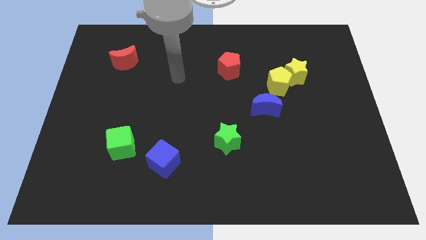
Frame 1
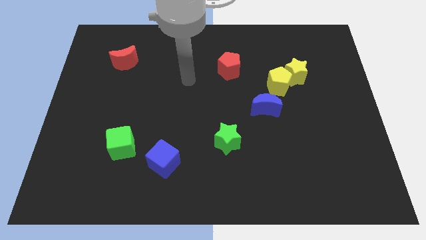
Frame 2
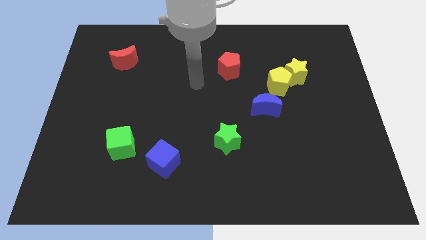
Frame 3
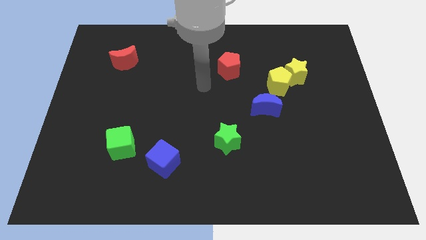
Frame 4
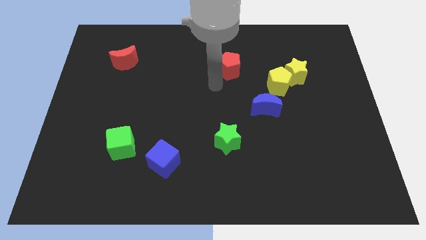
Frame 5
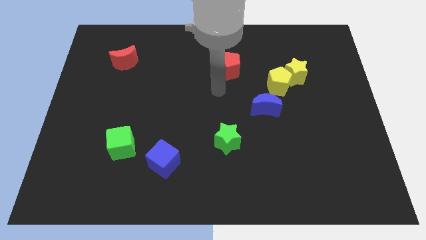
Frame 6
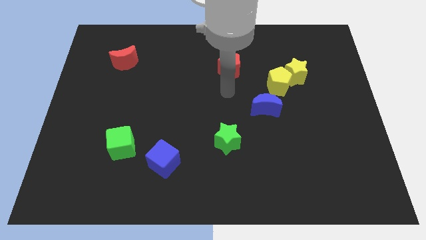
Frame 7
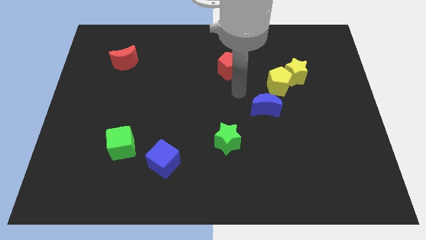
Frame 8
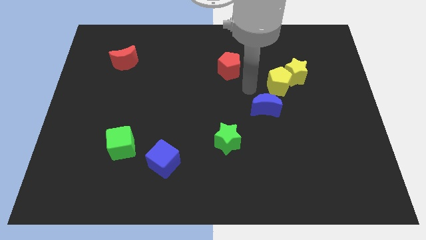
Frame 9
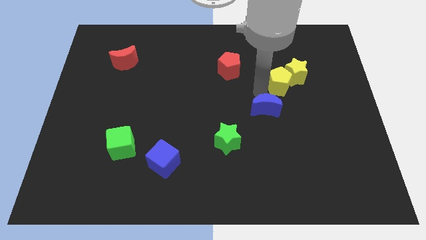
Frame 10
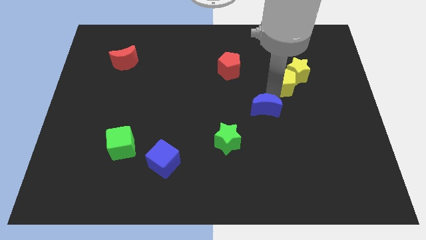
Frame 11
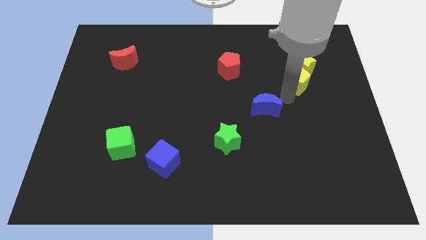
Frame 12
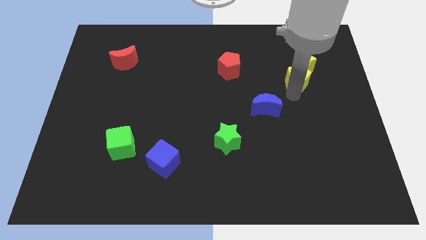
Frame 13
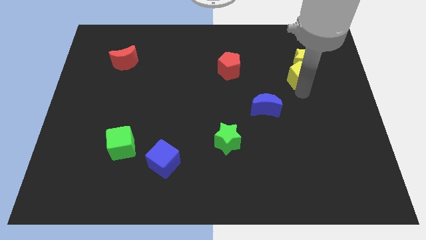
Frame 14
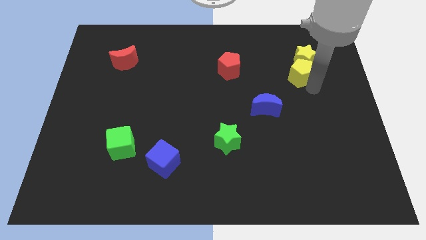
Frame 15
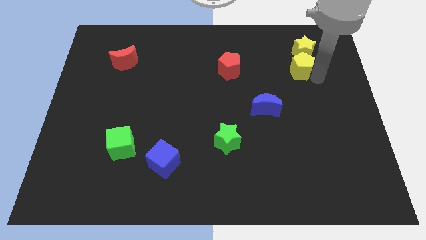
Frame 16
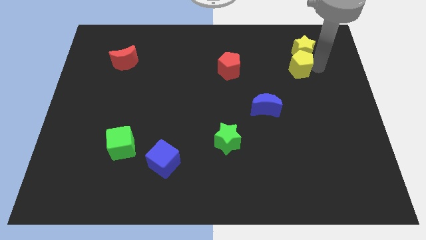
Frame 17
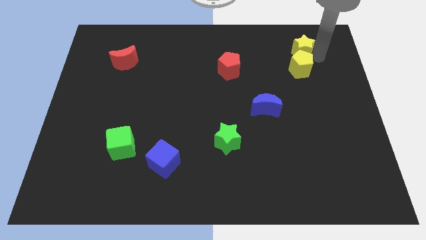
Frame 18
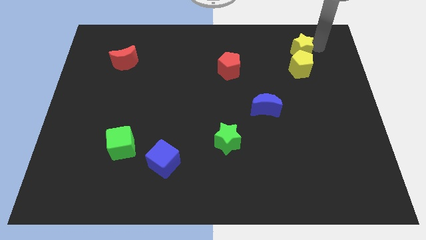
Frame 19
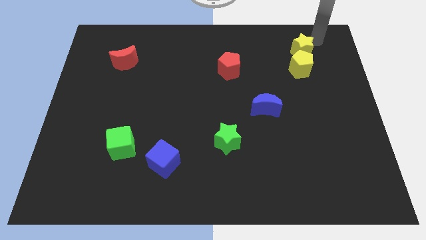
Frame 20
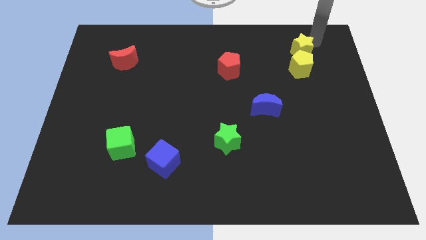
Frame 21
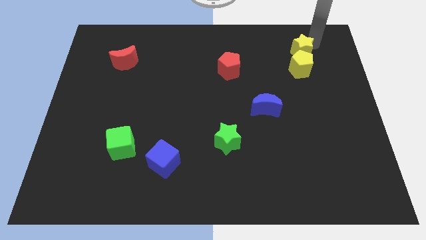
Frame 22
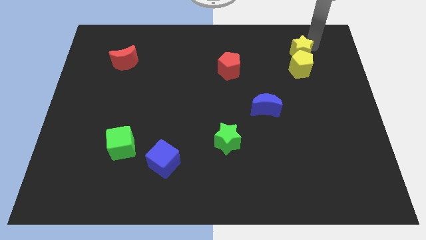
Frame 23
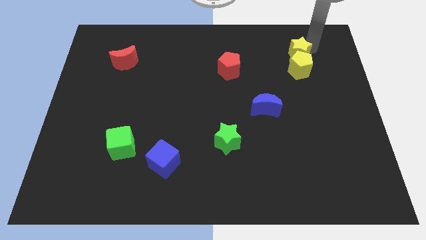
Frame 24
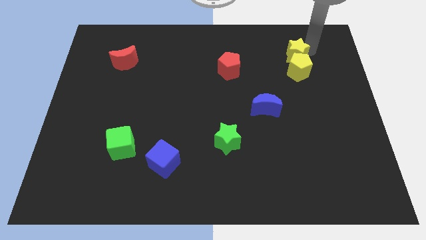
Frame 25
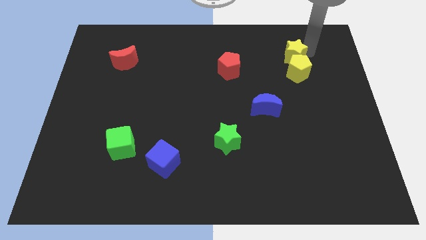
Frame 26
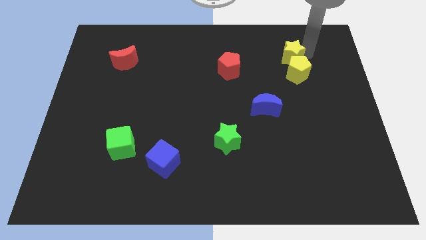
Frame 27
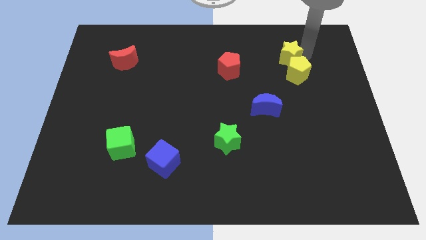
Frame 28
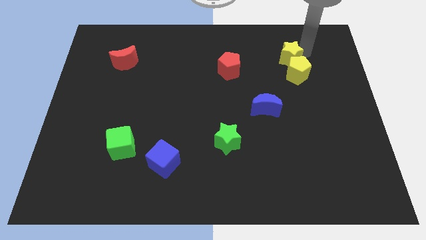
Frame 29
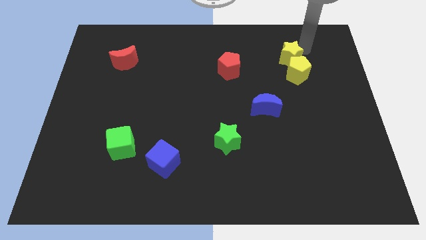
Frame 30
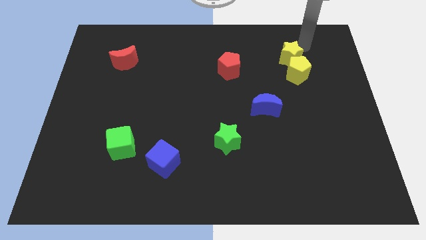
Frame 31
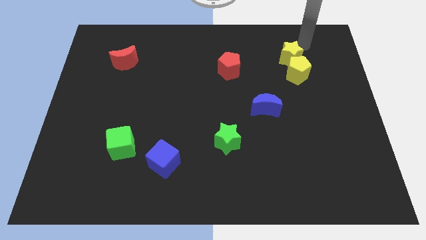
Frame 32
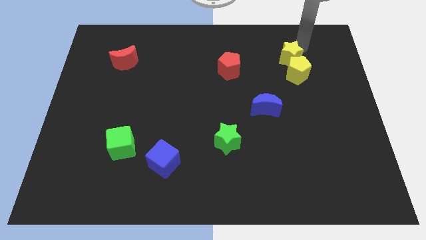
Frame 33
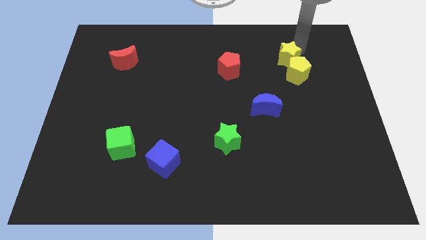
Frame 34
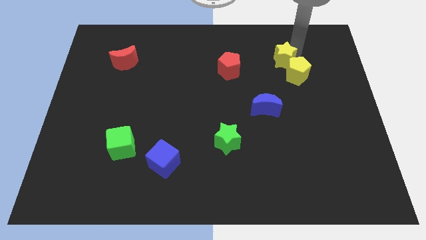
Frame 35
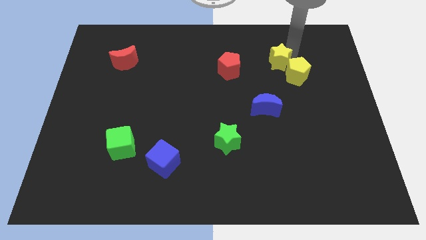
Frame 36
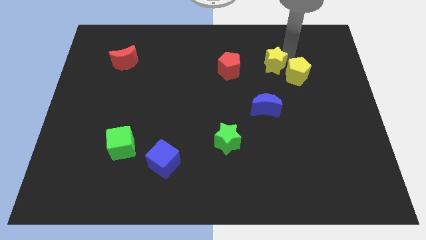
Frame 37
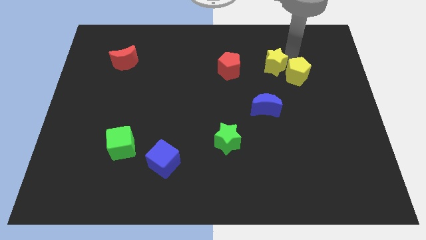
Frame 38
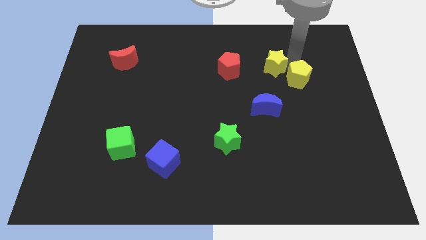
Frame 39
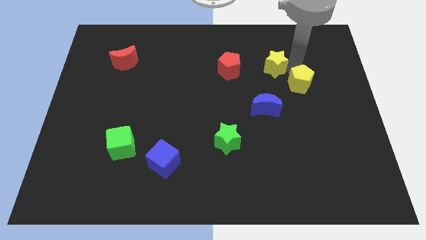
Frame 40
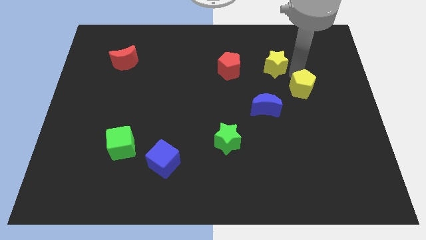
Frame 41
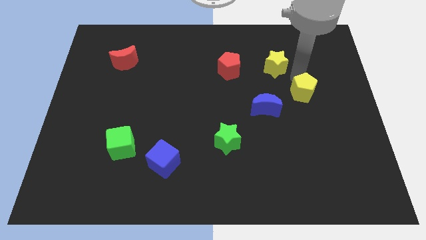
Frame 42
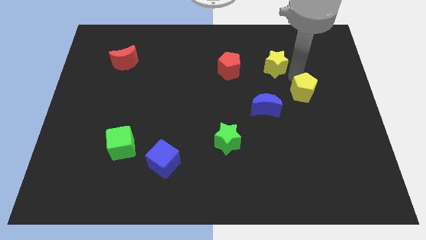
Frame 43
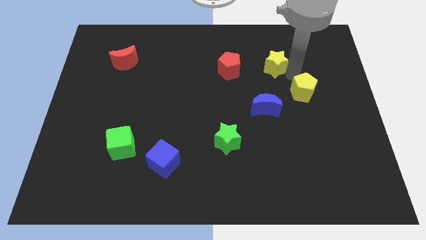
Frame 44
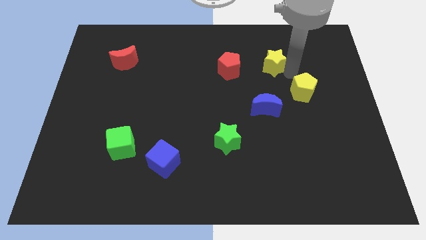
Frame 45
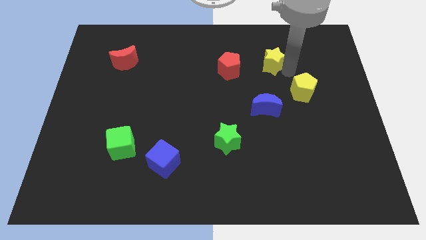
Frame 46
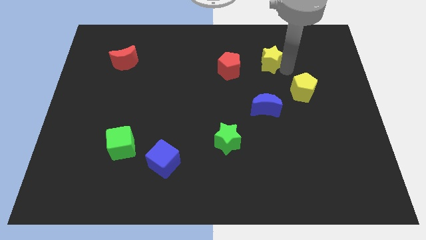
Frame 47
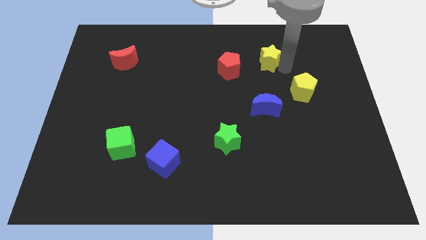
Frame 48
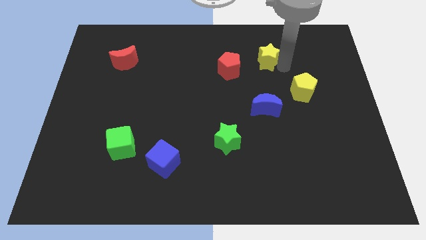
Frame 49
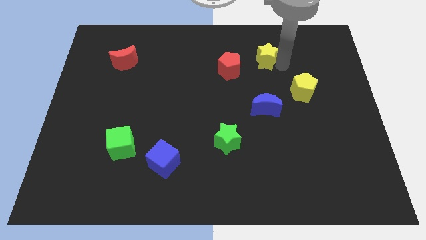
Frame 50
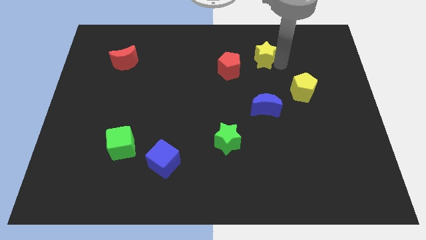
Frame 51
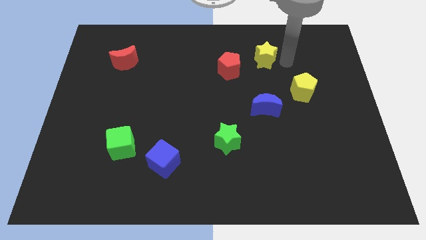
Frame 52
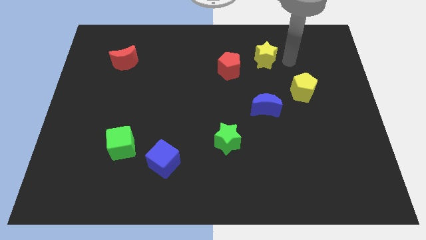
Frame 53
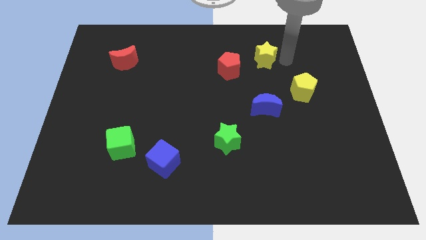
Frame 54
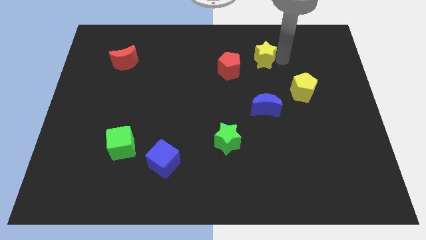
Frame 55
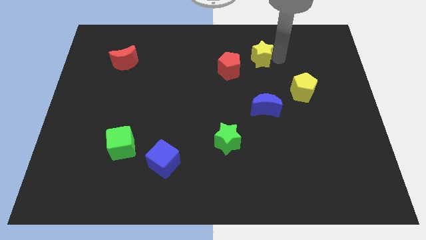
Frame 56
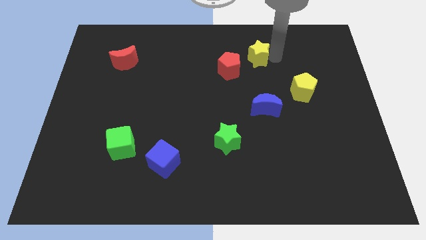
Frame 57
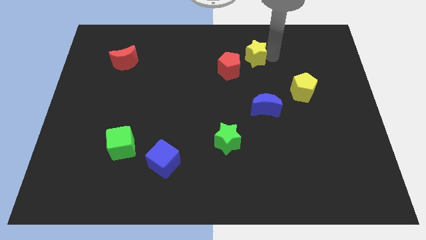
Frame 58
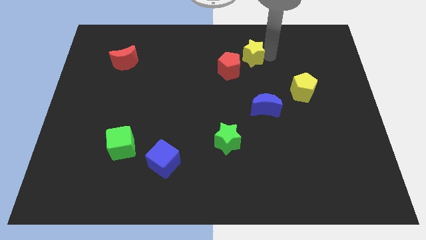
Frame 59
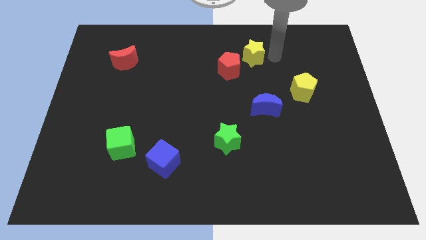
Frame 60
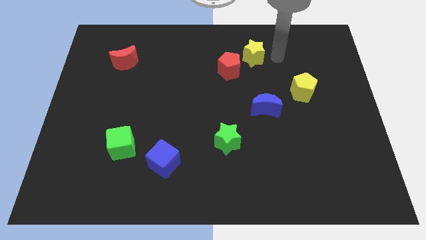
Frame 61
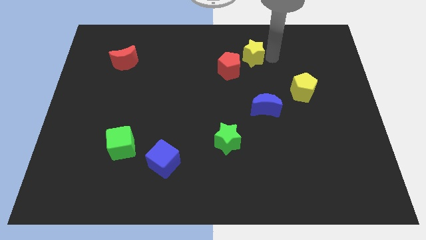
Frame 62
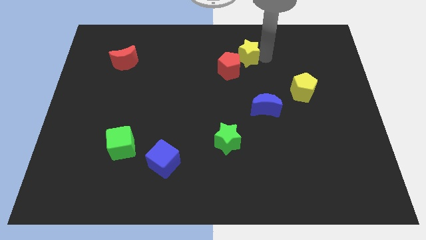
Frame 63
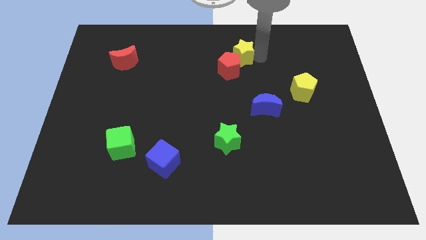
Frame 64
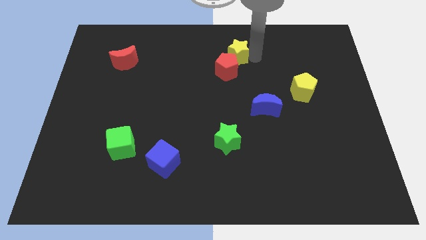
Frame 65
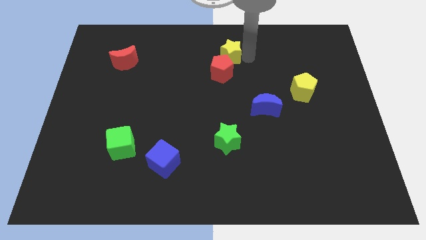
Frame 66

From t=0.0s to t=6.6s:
slide the yellow star to the top
